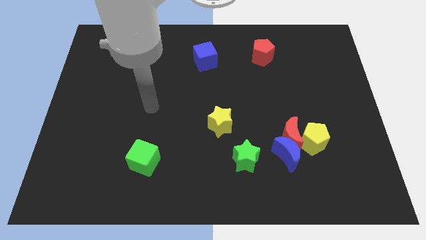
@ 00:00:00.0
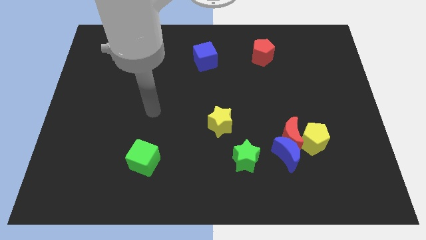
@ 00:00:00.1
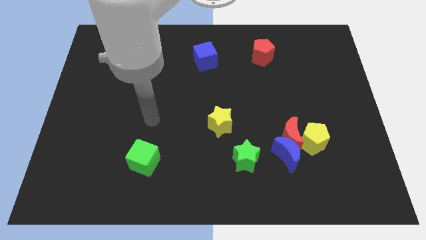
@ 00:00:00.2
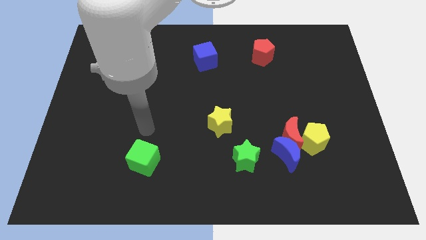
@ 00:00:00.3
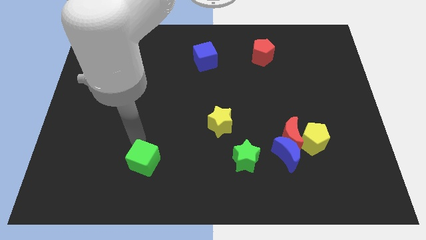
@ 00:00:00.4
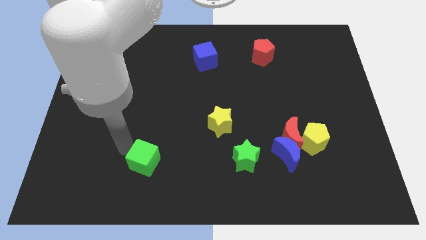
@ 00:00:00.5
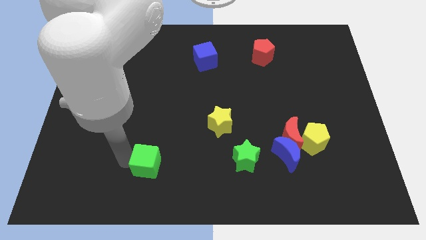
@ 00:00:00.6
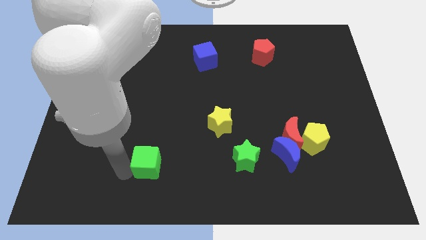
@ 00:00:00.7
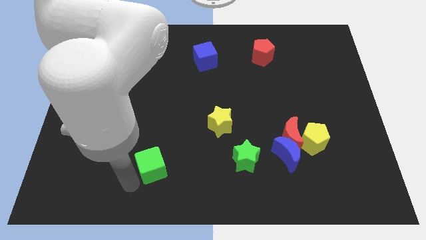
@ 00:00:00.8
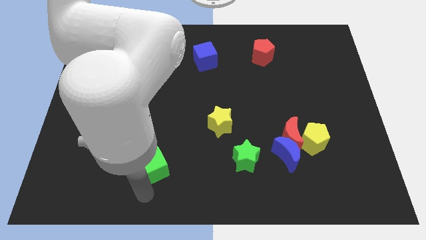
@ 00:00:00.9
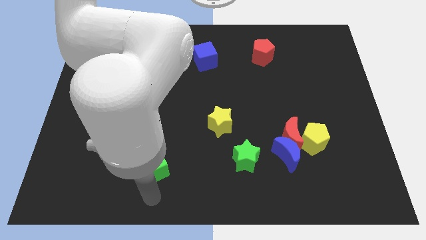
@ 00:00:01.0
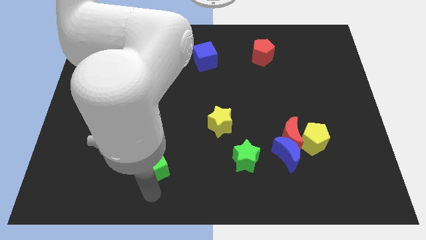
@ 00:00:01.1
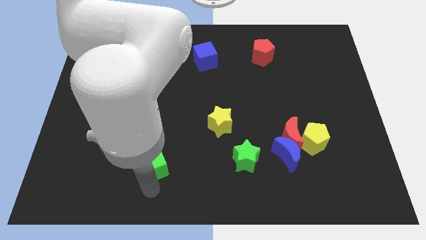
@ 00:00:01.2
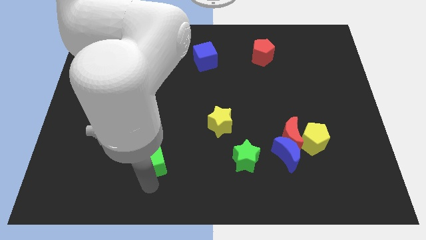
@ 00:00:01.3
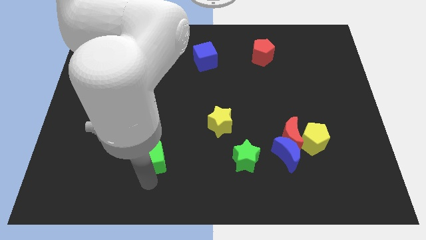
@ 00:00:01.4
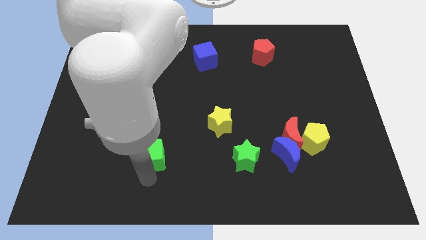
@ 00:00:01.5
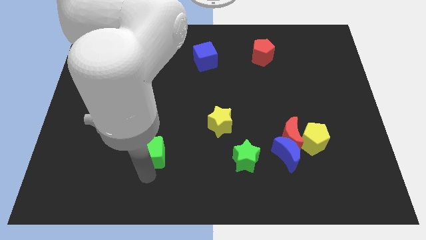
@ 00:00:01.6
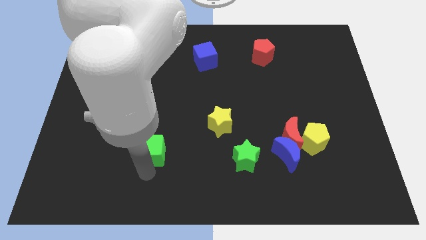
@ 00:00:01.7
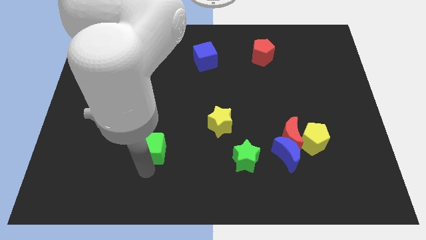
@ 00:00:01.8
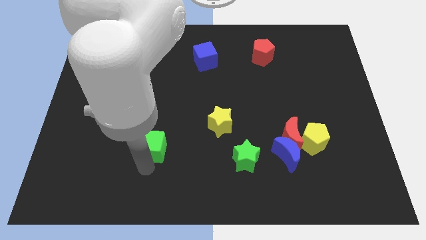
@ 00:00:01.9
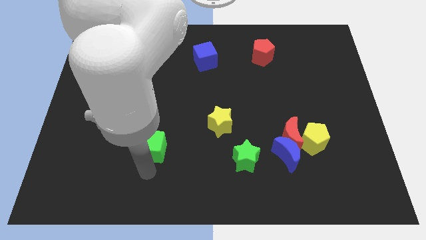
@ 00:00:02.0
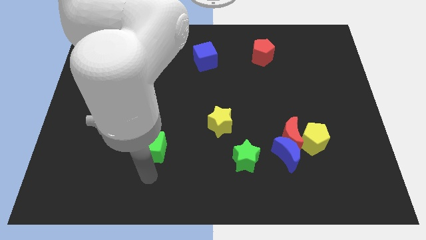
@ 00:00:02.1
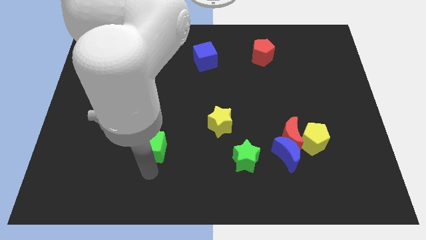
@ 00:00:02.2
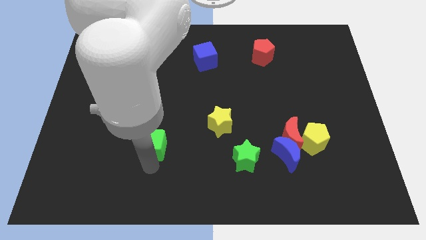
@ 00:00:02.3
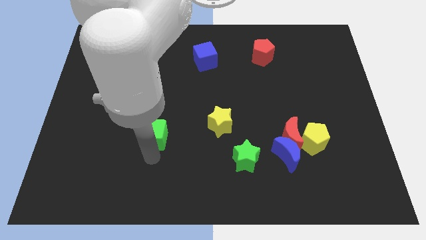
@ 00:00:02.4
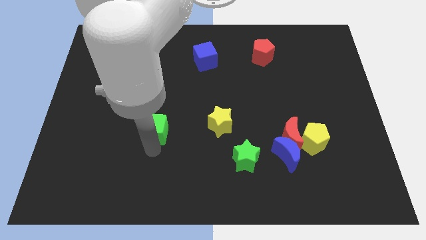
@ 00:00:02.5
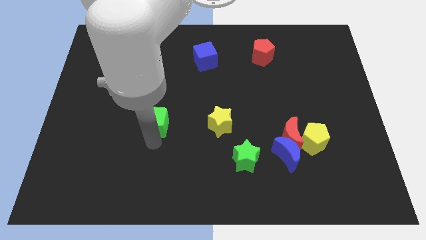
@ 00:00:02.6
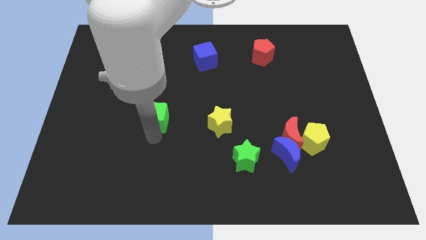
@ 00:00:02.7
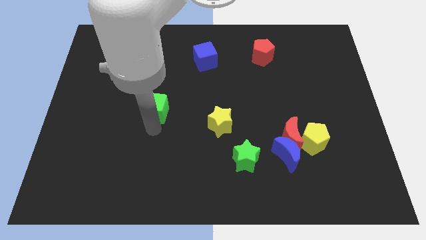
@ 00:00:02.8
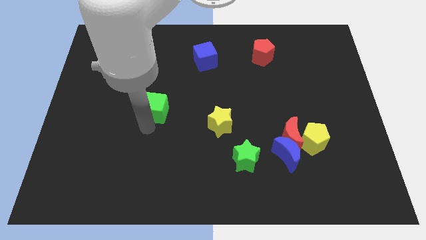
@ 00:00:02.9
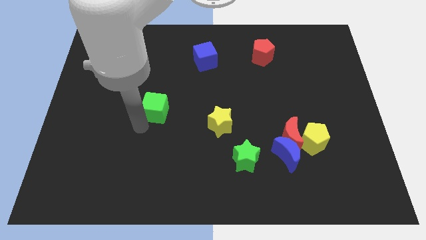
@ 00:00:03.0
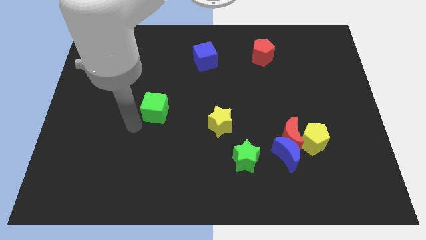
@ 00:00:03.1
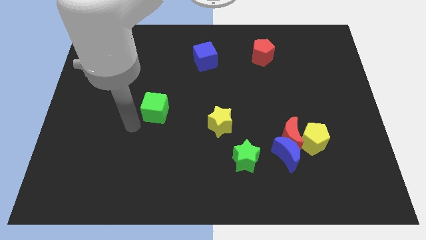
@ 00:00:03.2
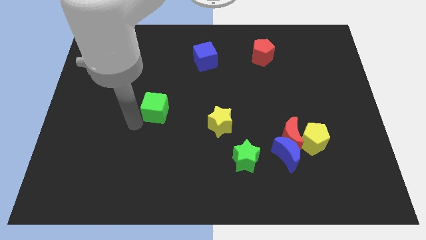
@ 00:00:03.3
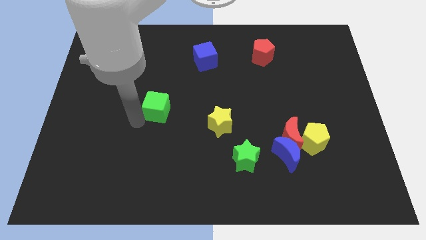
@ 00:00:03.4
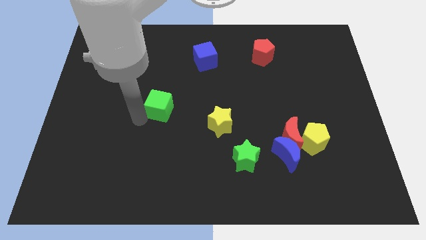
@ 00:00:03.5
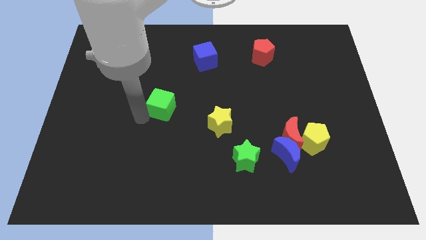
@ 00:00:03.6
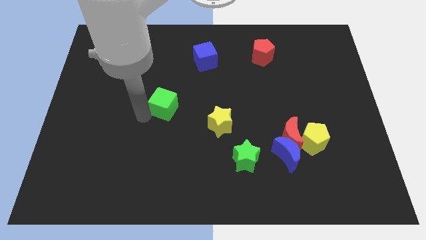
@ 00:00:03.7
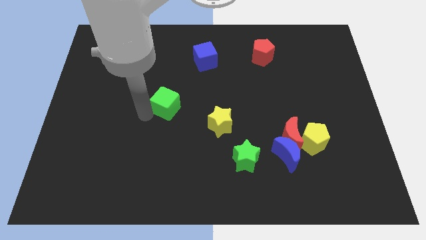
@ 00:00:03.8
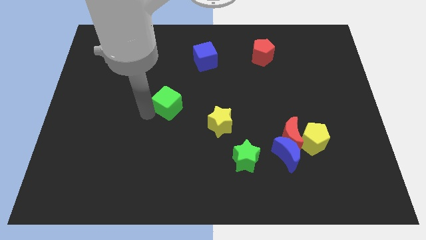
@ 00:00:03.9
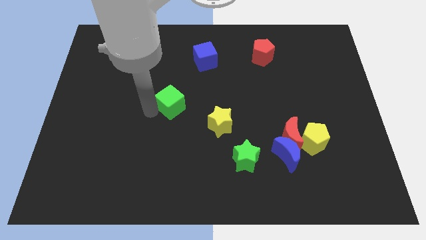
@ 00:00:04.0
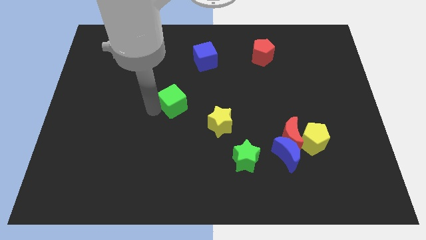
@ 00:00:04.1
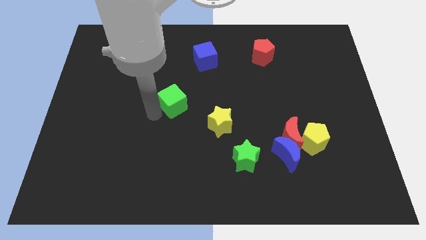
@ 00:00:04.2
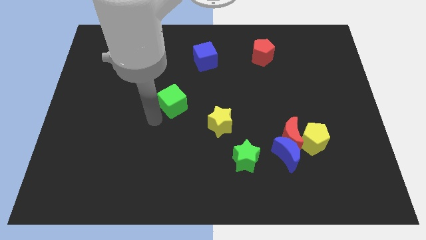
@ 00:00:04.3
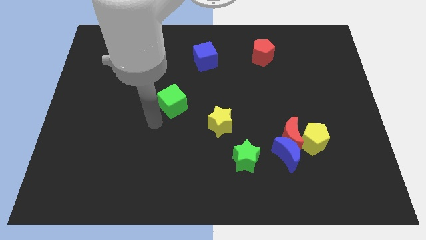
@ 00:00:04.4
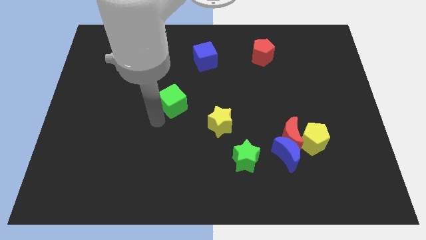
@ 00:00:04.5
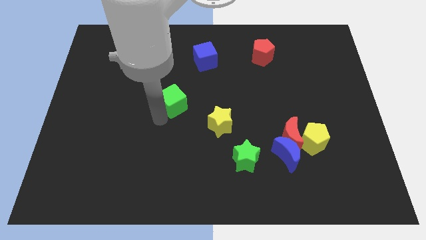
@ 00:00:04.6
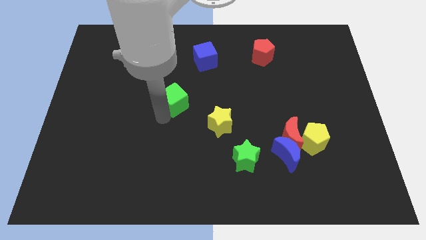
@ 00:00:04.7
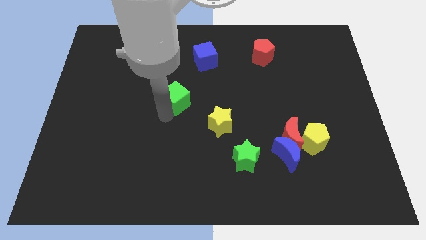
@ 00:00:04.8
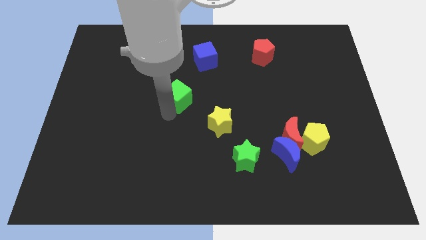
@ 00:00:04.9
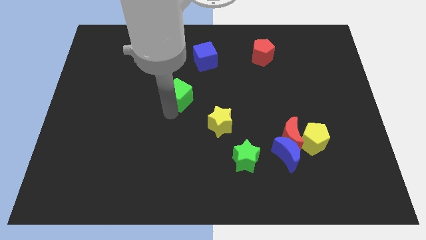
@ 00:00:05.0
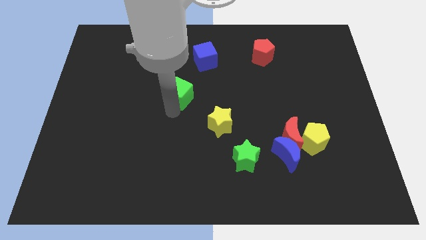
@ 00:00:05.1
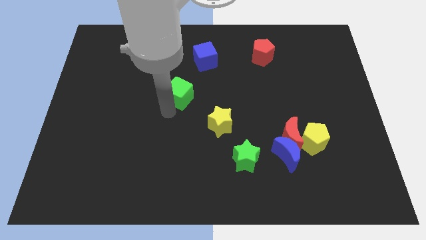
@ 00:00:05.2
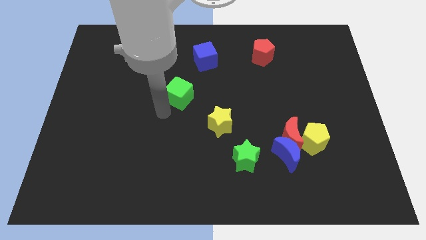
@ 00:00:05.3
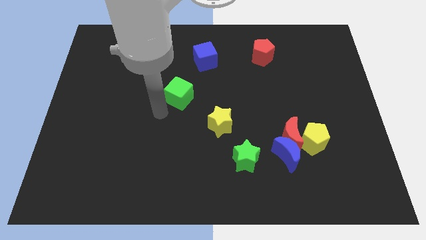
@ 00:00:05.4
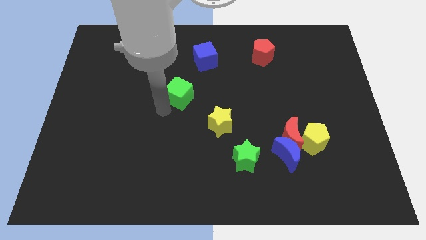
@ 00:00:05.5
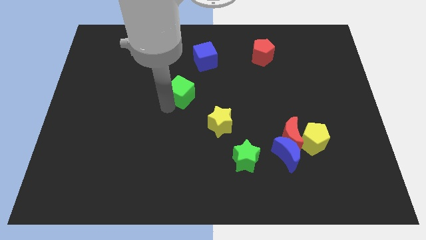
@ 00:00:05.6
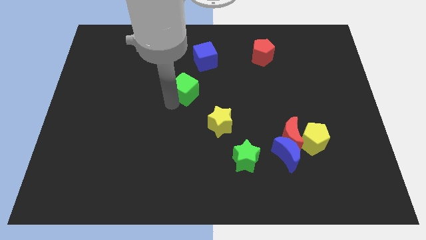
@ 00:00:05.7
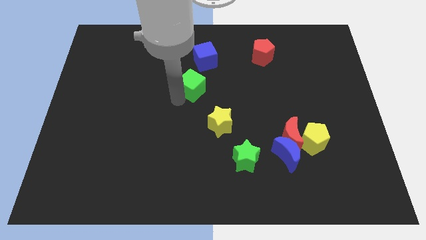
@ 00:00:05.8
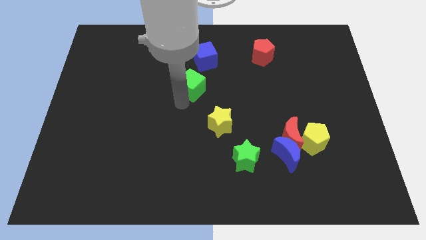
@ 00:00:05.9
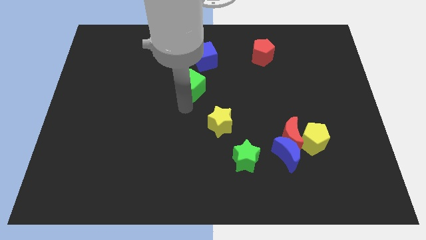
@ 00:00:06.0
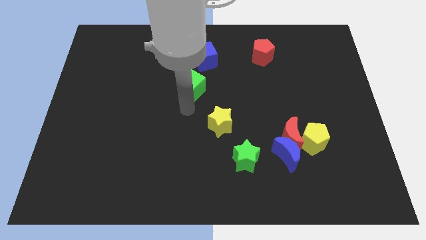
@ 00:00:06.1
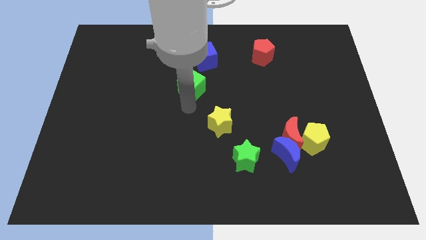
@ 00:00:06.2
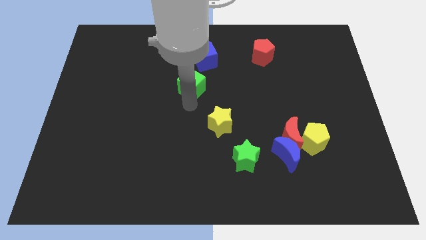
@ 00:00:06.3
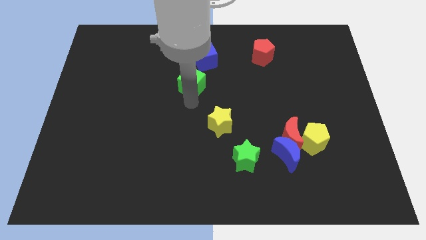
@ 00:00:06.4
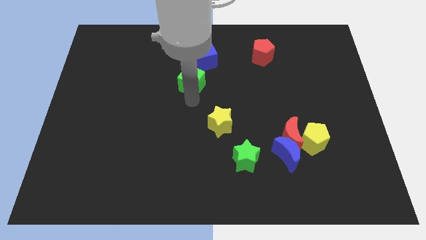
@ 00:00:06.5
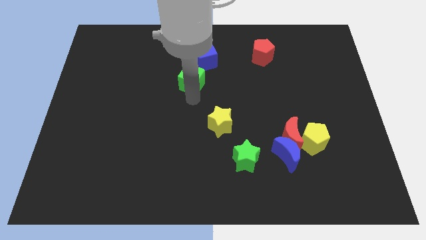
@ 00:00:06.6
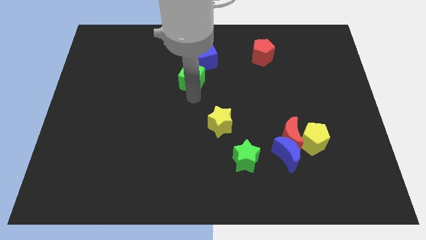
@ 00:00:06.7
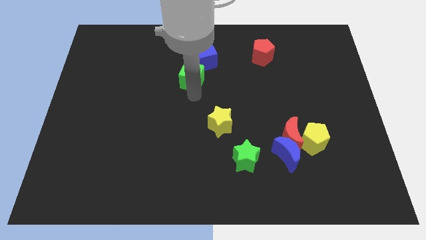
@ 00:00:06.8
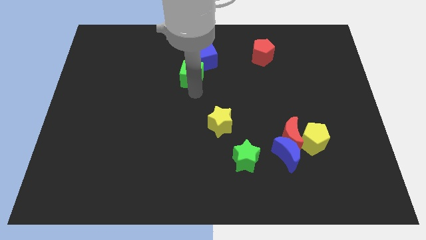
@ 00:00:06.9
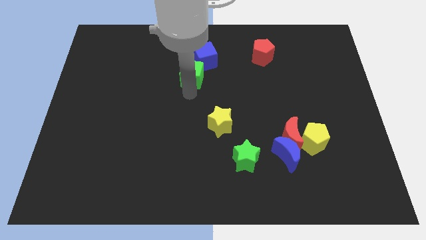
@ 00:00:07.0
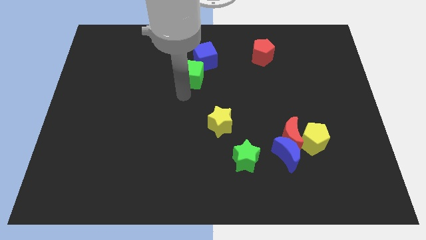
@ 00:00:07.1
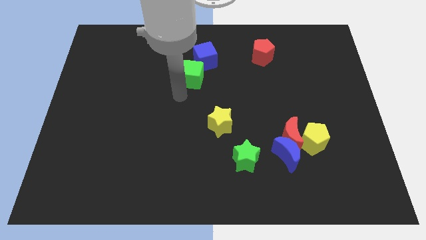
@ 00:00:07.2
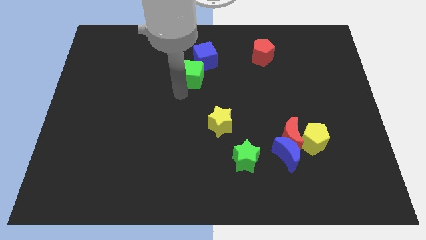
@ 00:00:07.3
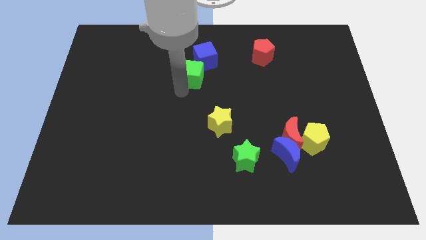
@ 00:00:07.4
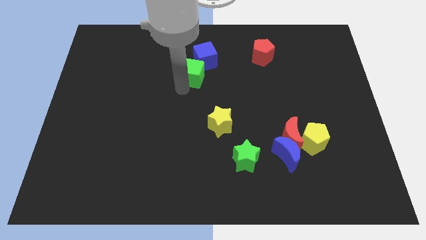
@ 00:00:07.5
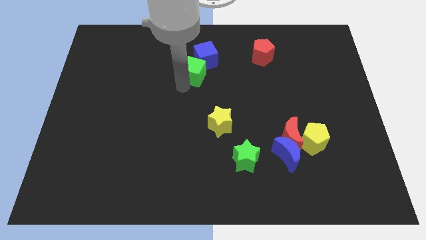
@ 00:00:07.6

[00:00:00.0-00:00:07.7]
push the green cube to the blue cube
